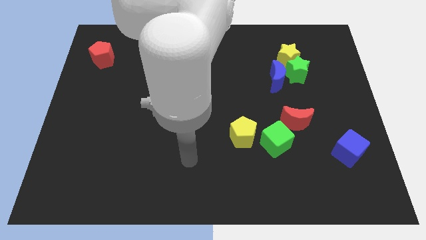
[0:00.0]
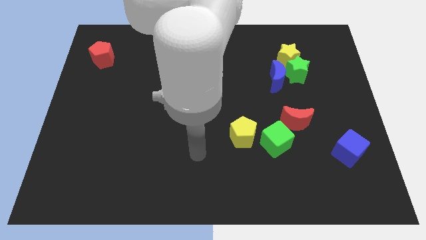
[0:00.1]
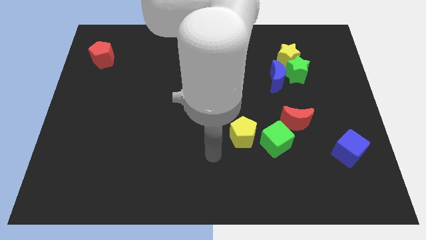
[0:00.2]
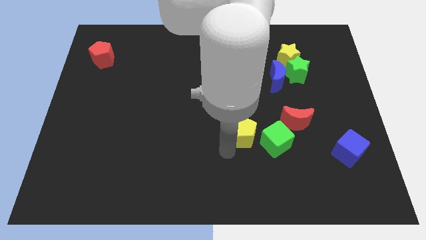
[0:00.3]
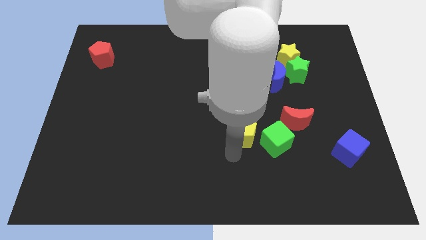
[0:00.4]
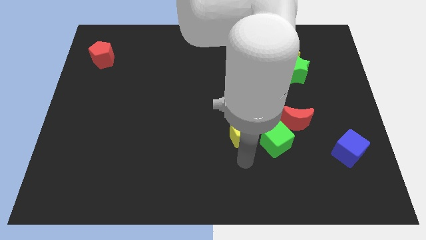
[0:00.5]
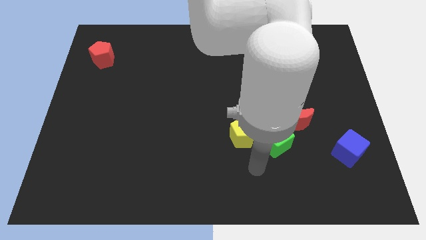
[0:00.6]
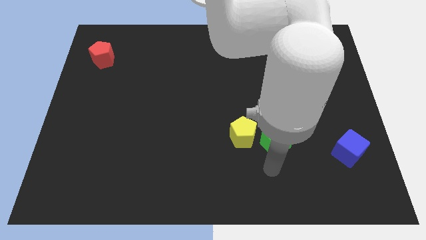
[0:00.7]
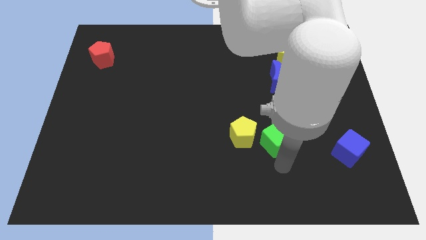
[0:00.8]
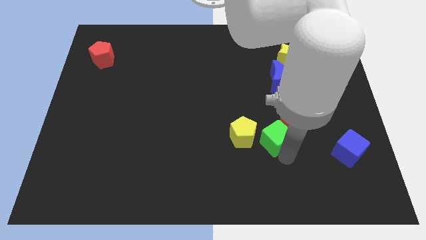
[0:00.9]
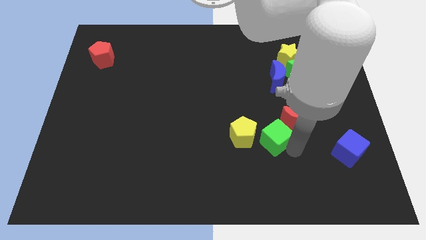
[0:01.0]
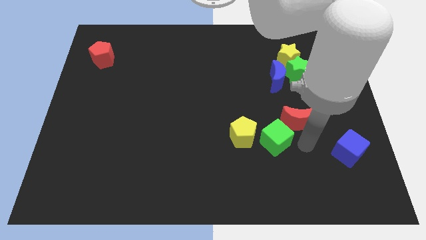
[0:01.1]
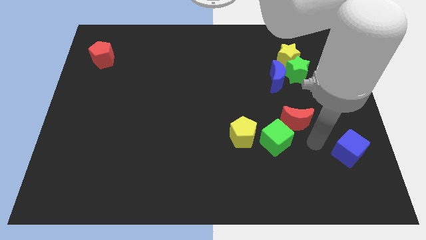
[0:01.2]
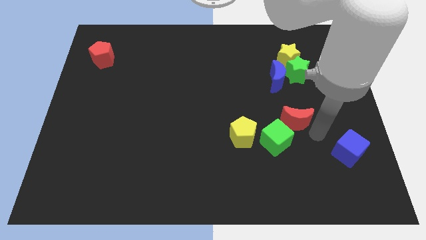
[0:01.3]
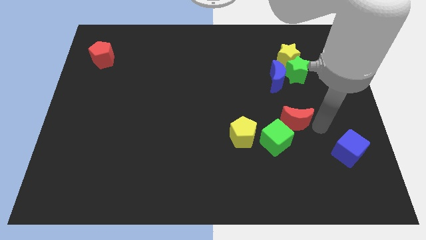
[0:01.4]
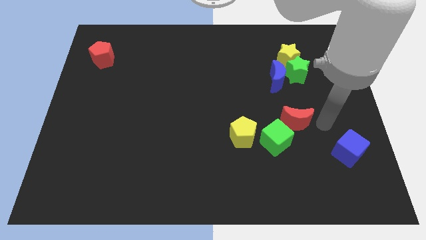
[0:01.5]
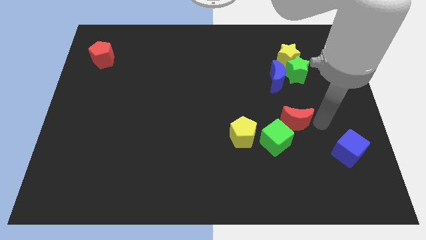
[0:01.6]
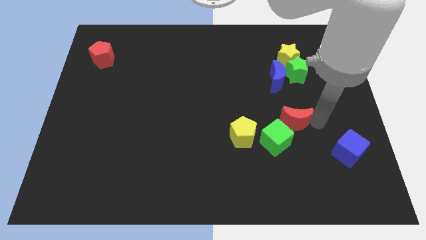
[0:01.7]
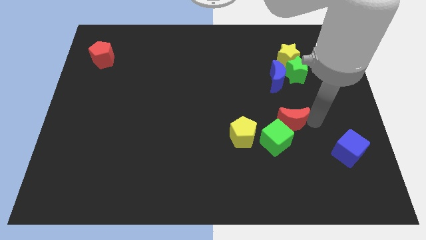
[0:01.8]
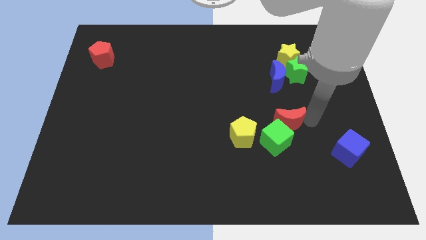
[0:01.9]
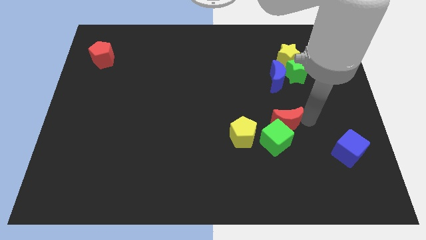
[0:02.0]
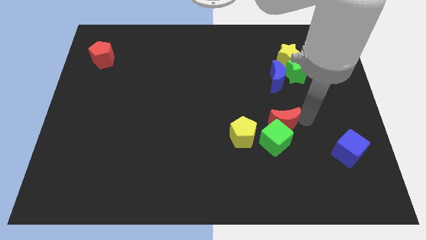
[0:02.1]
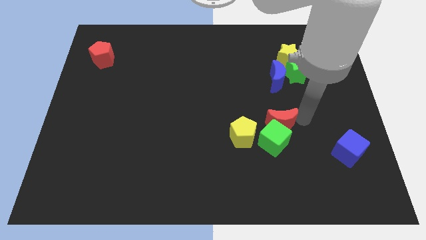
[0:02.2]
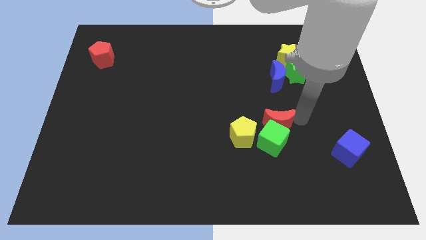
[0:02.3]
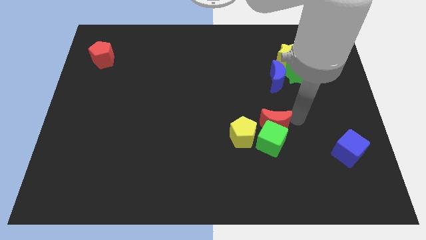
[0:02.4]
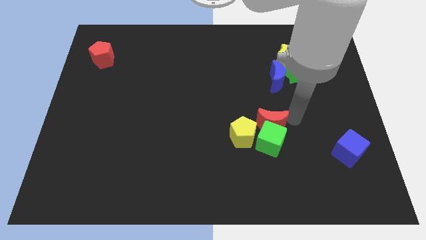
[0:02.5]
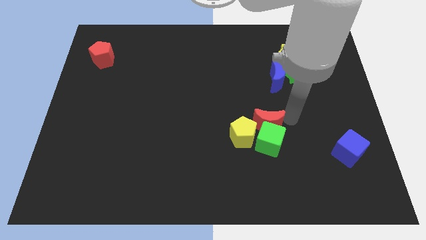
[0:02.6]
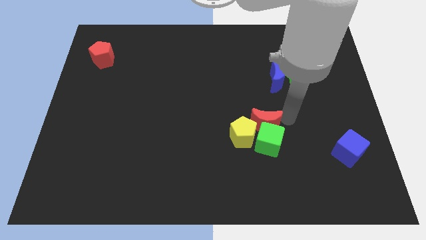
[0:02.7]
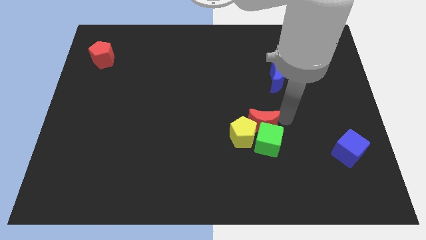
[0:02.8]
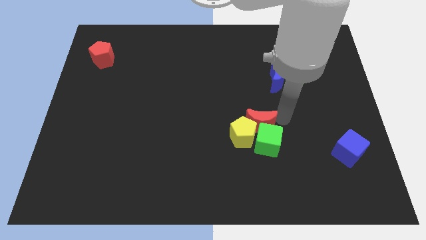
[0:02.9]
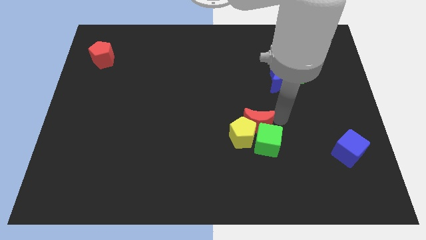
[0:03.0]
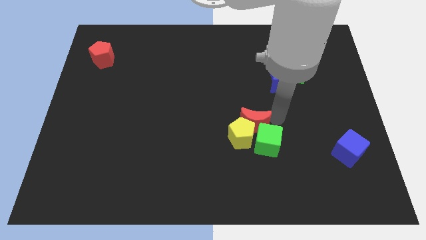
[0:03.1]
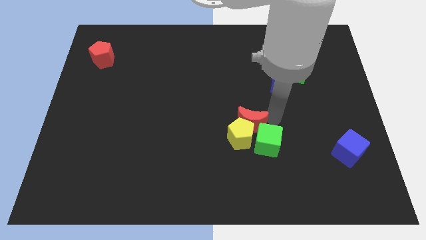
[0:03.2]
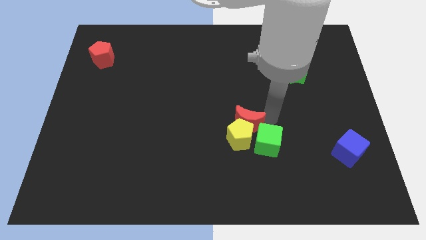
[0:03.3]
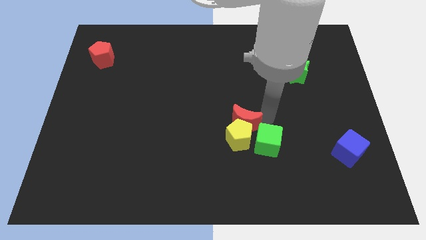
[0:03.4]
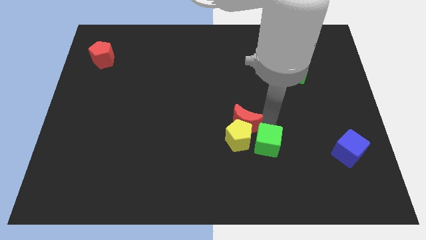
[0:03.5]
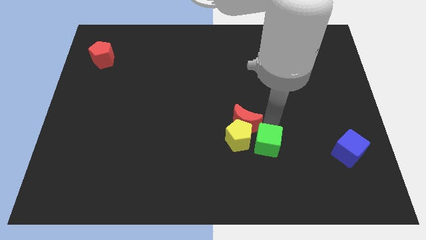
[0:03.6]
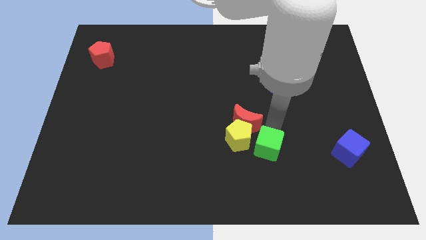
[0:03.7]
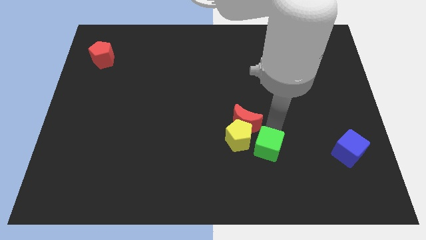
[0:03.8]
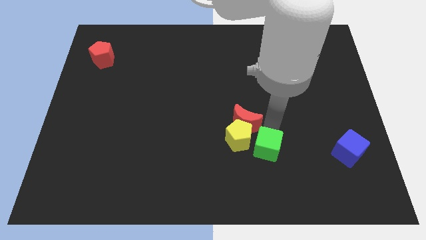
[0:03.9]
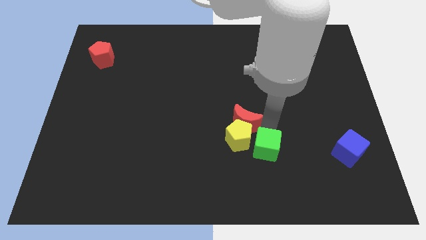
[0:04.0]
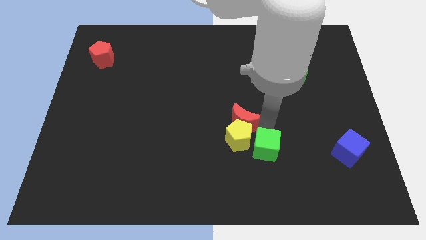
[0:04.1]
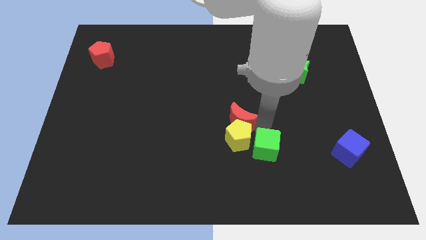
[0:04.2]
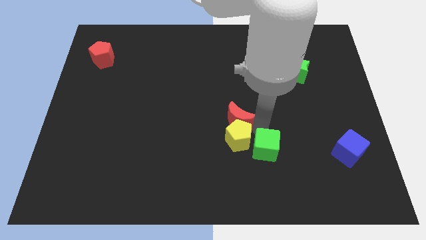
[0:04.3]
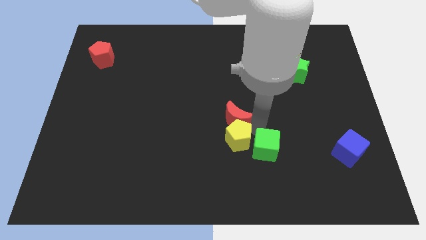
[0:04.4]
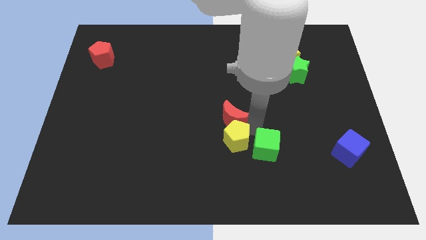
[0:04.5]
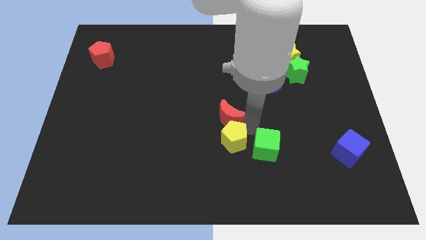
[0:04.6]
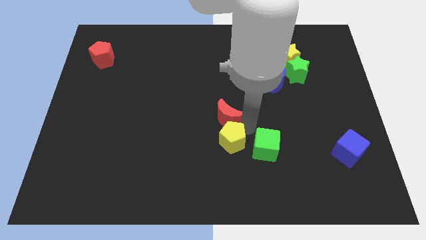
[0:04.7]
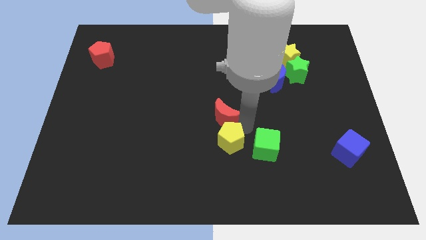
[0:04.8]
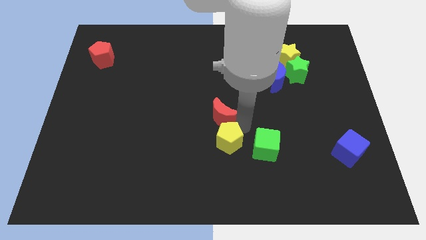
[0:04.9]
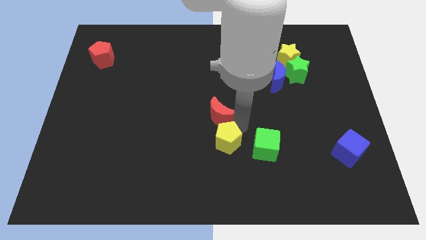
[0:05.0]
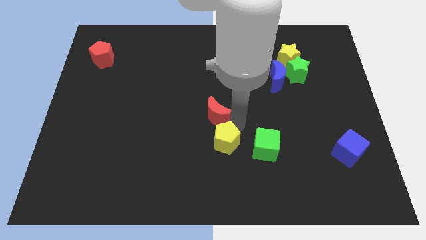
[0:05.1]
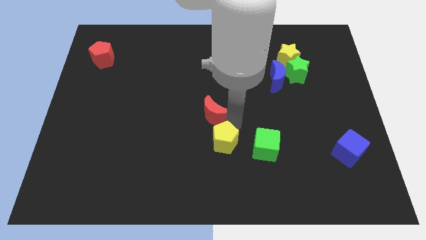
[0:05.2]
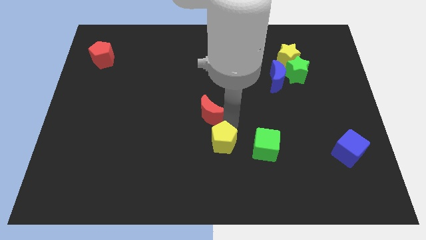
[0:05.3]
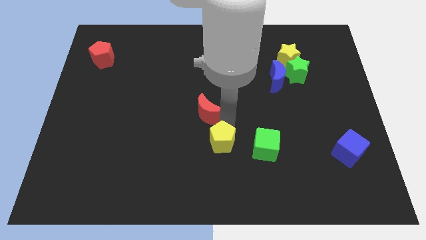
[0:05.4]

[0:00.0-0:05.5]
push the red moon to the left

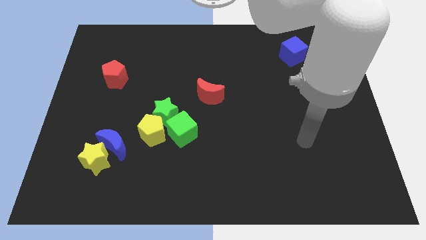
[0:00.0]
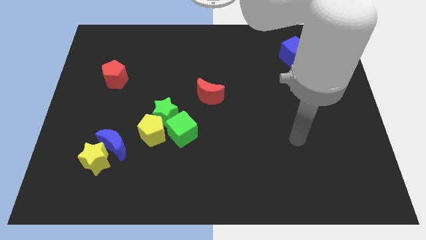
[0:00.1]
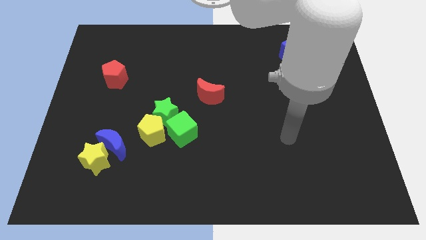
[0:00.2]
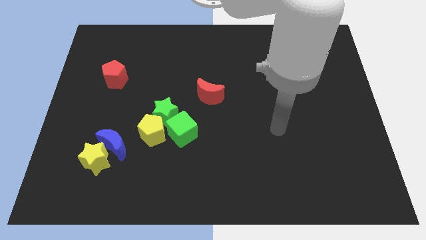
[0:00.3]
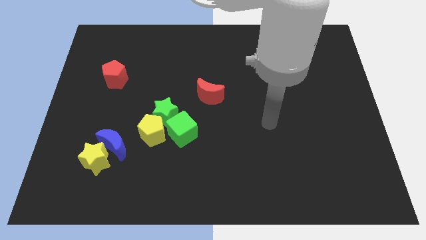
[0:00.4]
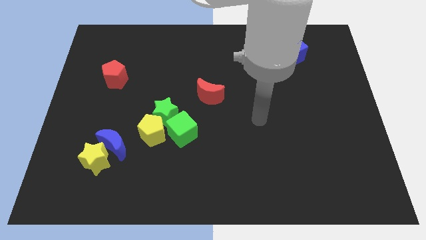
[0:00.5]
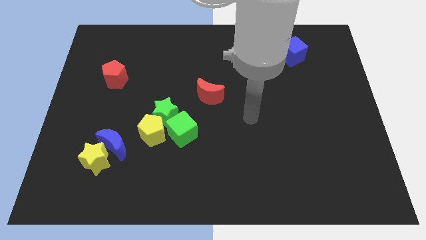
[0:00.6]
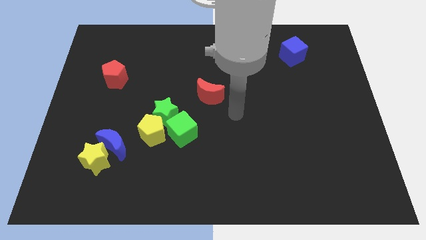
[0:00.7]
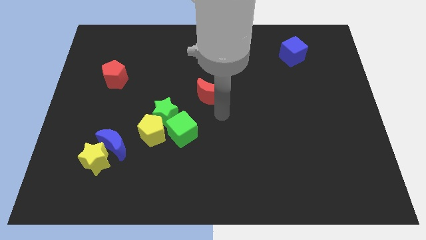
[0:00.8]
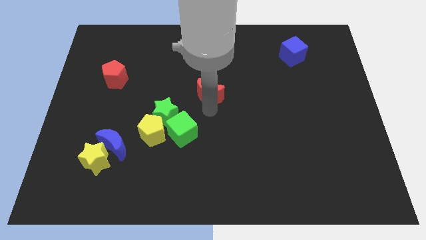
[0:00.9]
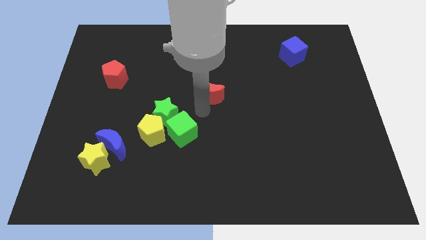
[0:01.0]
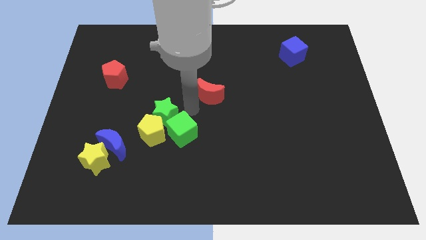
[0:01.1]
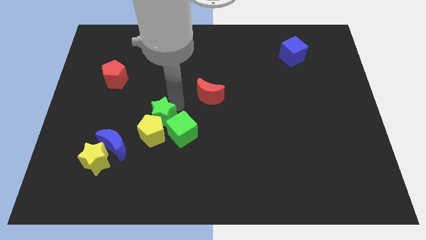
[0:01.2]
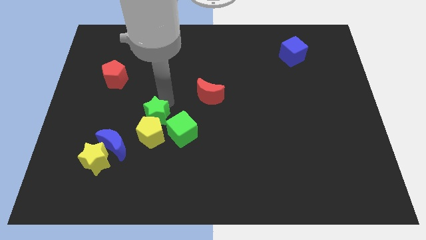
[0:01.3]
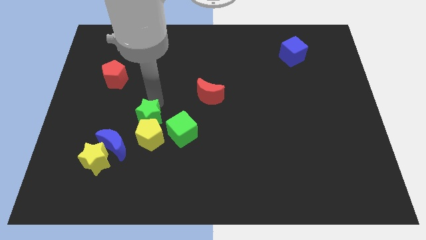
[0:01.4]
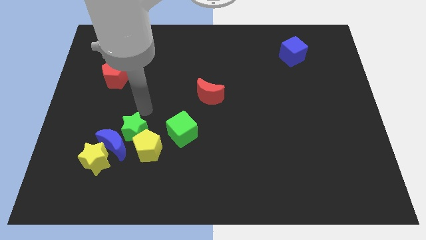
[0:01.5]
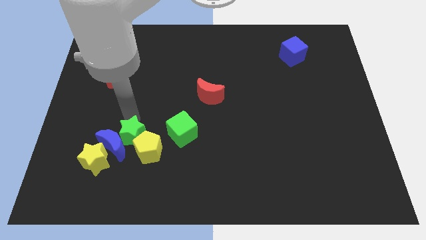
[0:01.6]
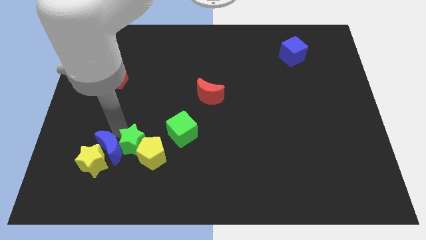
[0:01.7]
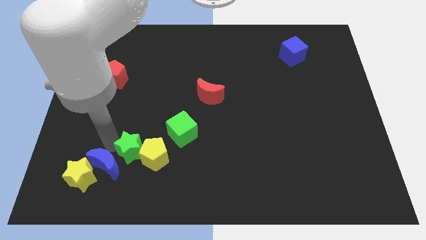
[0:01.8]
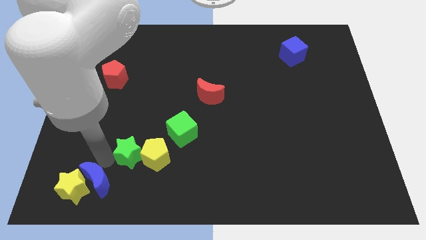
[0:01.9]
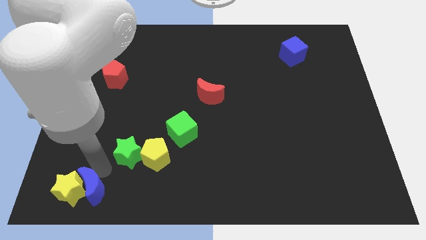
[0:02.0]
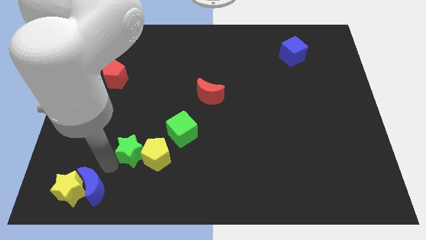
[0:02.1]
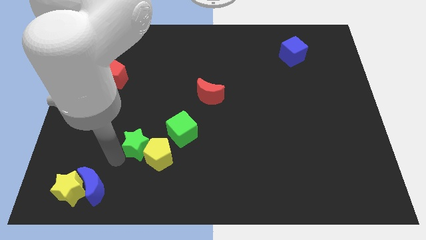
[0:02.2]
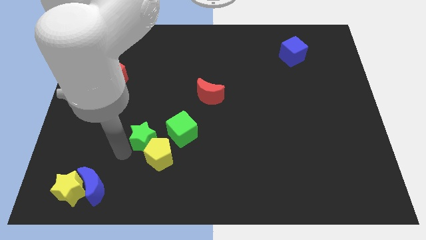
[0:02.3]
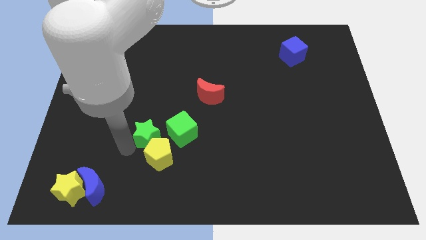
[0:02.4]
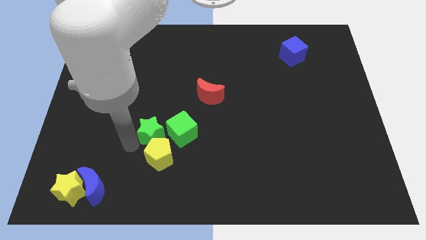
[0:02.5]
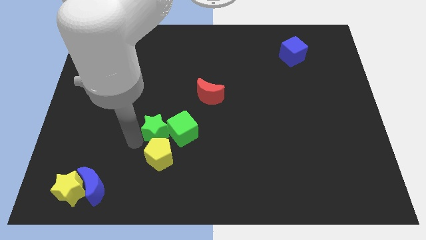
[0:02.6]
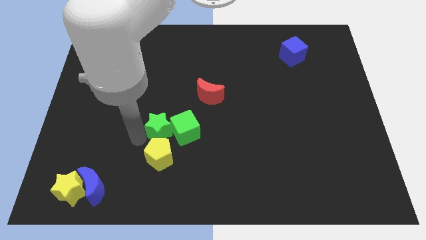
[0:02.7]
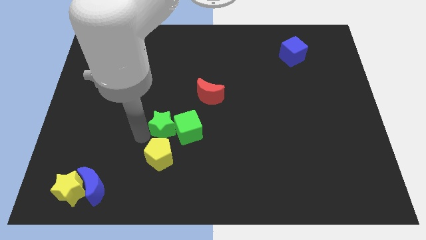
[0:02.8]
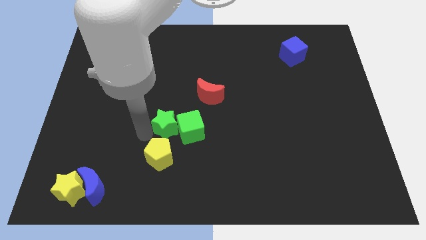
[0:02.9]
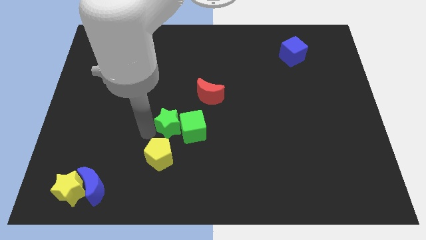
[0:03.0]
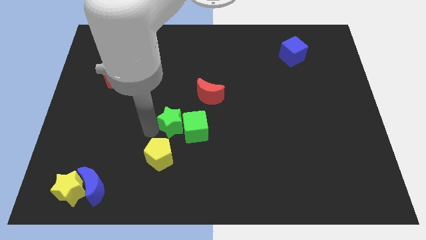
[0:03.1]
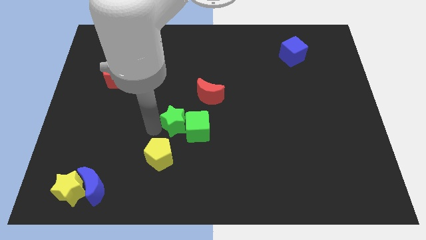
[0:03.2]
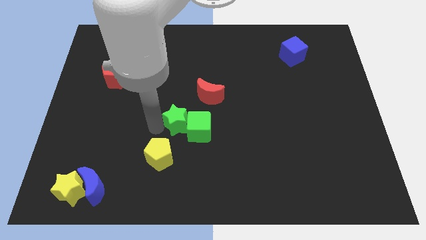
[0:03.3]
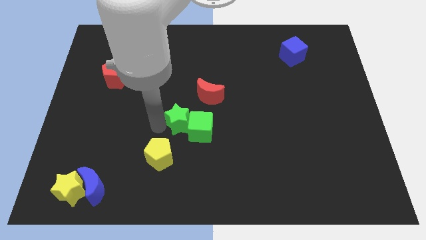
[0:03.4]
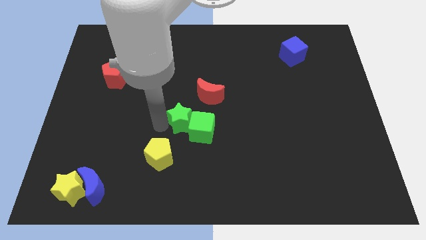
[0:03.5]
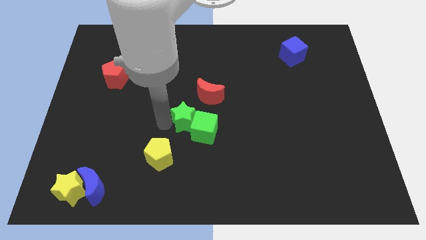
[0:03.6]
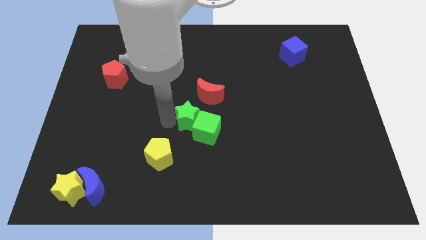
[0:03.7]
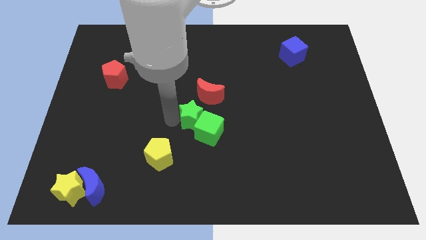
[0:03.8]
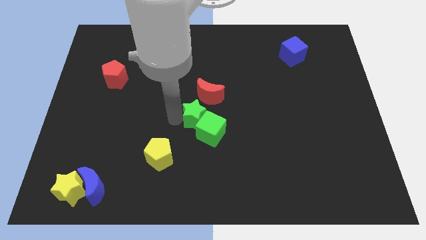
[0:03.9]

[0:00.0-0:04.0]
move the green star slightly to the right
